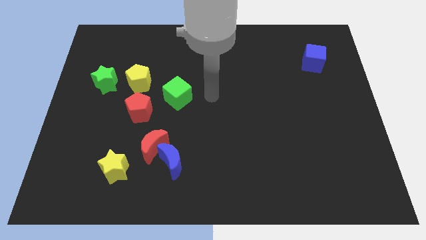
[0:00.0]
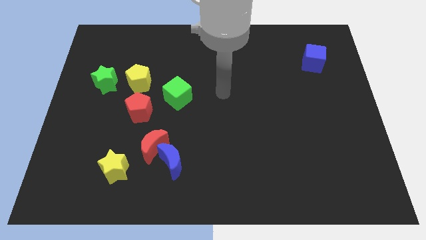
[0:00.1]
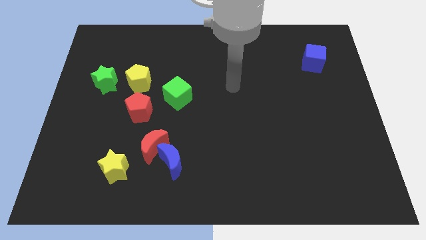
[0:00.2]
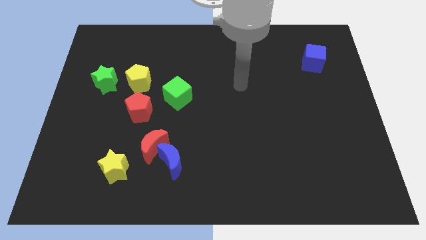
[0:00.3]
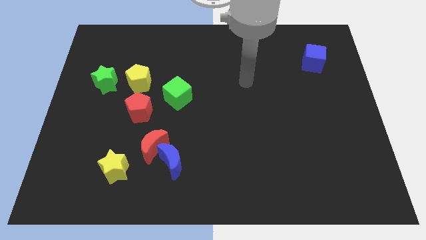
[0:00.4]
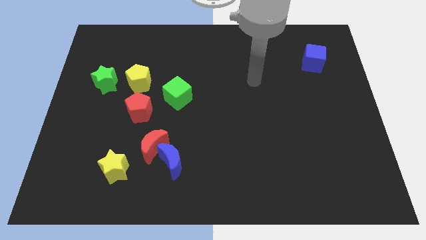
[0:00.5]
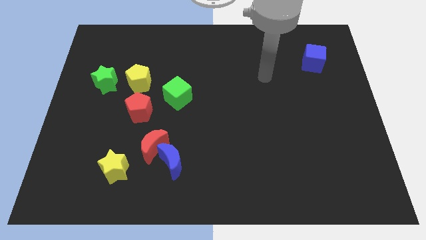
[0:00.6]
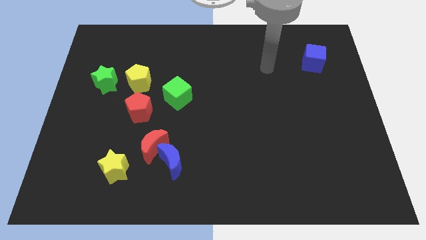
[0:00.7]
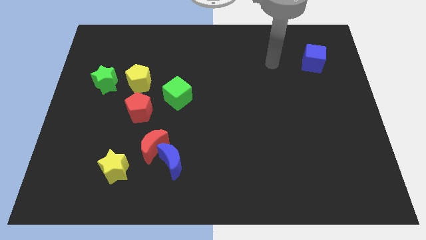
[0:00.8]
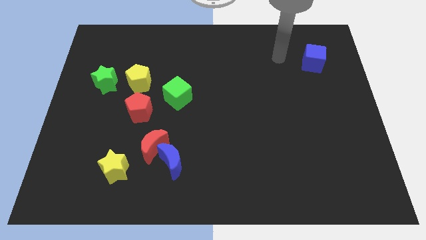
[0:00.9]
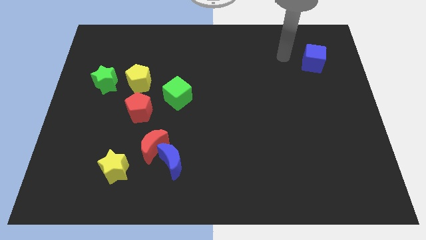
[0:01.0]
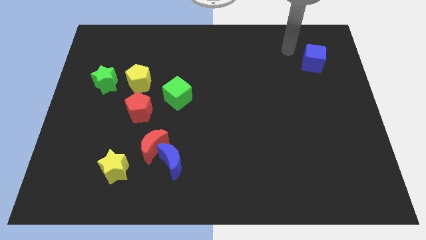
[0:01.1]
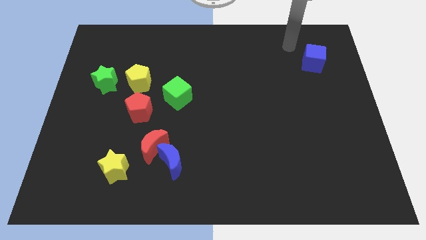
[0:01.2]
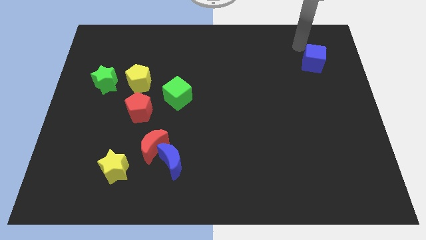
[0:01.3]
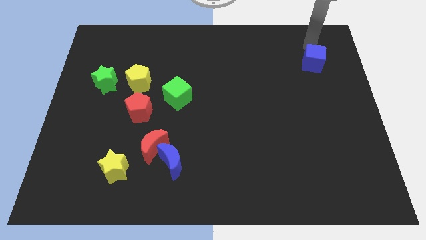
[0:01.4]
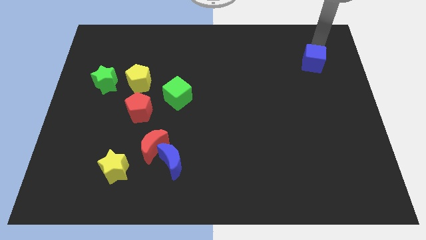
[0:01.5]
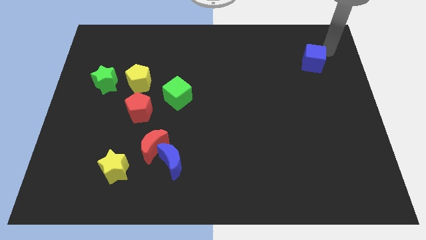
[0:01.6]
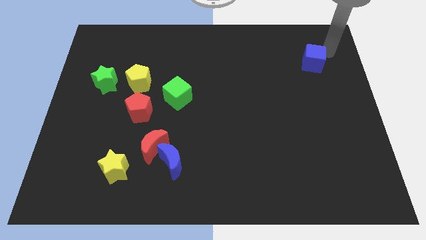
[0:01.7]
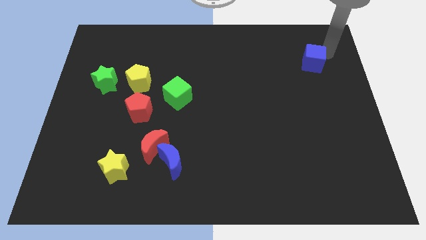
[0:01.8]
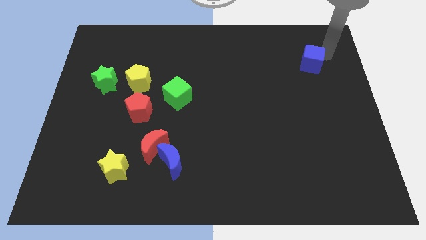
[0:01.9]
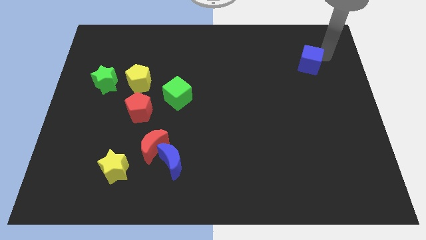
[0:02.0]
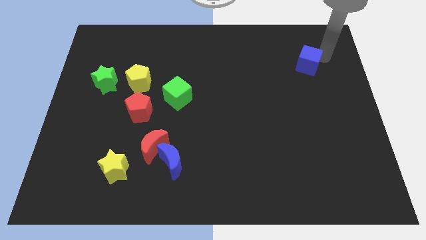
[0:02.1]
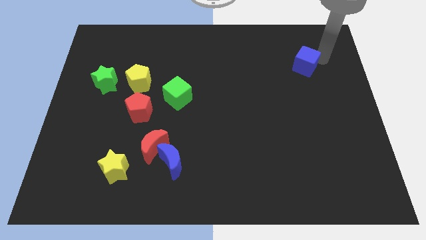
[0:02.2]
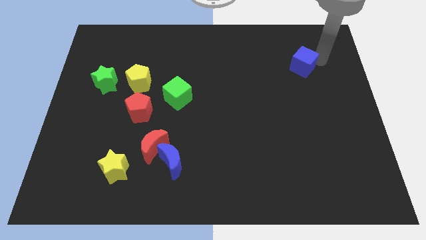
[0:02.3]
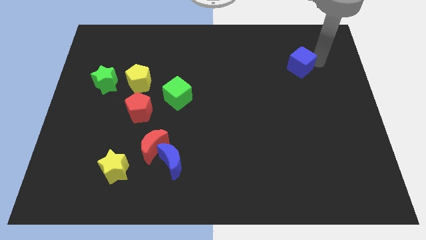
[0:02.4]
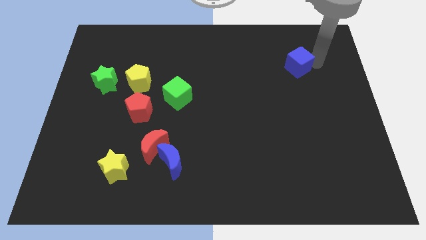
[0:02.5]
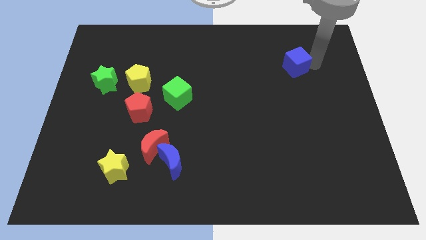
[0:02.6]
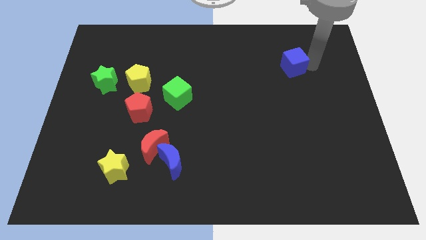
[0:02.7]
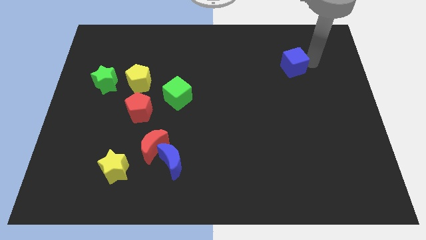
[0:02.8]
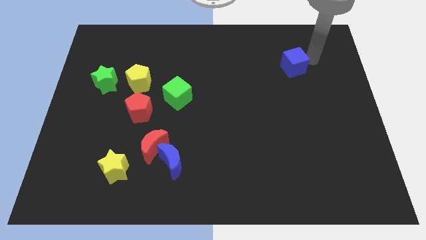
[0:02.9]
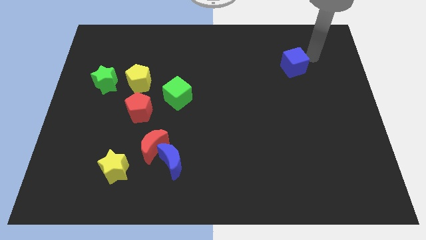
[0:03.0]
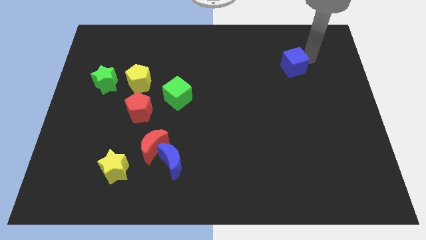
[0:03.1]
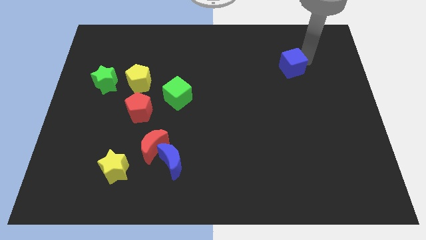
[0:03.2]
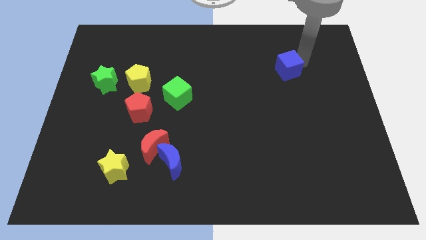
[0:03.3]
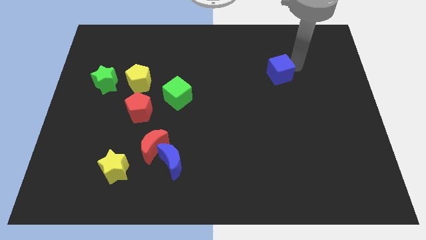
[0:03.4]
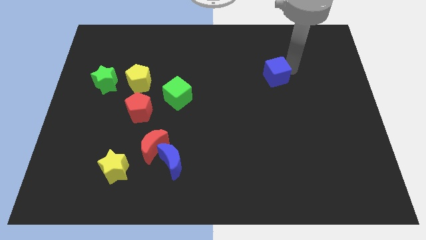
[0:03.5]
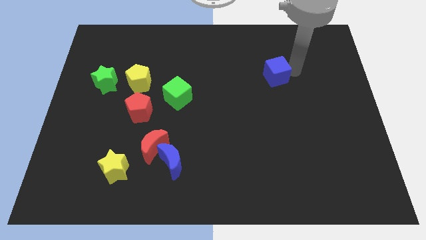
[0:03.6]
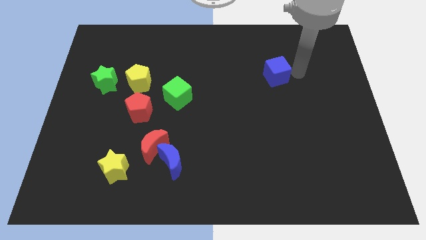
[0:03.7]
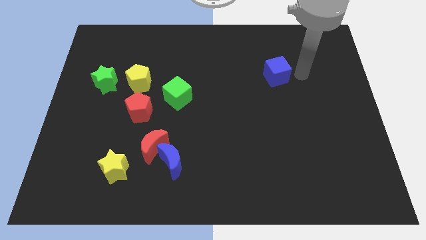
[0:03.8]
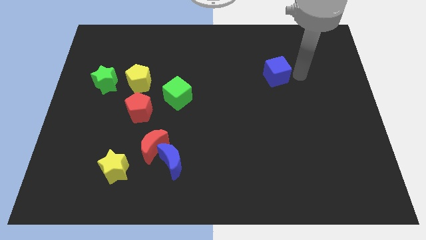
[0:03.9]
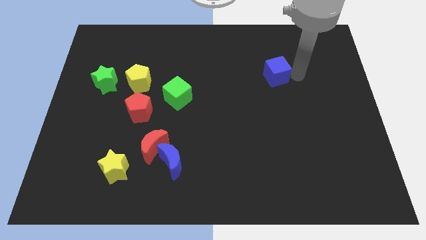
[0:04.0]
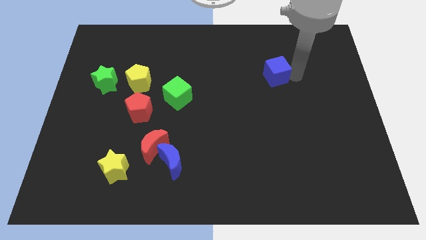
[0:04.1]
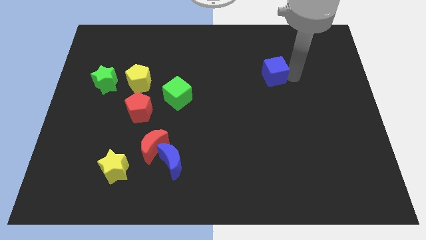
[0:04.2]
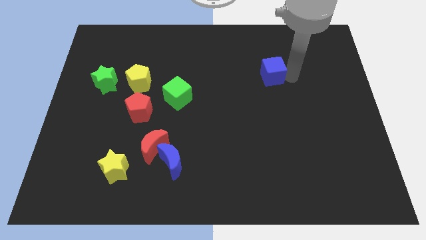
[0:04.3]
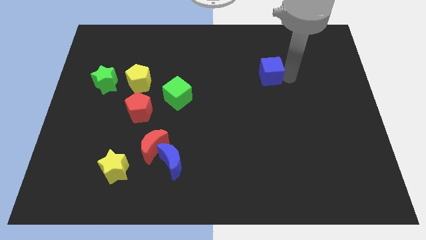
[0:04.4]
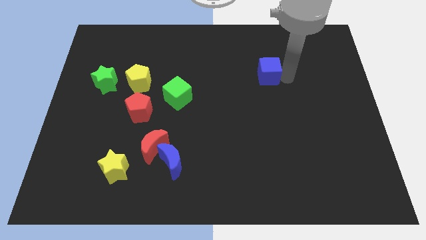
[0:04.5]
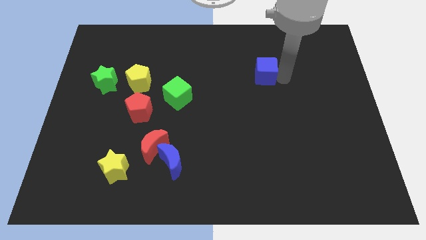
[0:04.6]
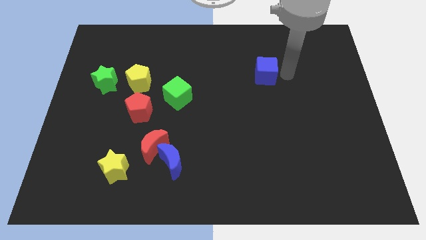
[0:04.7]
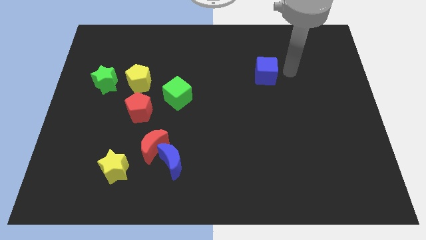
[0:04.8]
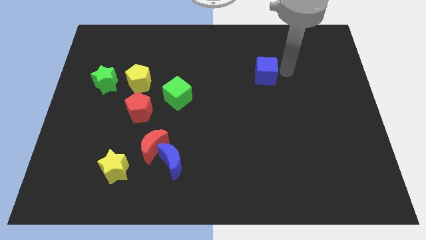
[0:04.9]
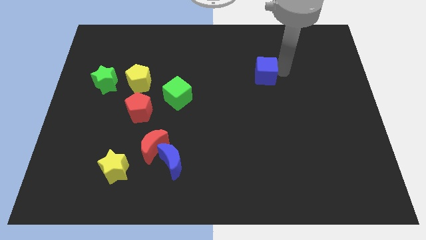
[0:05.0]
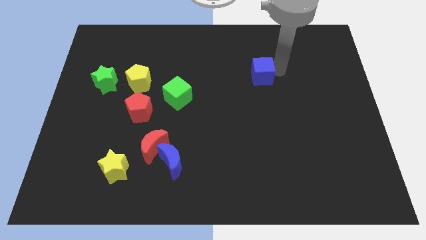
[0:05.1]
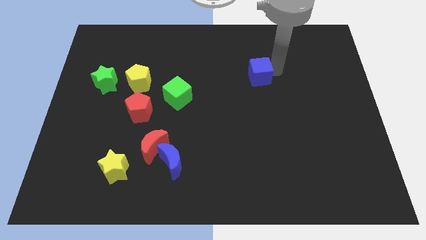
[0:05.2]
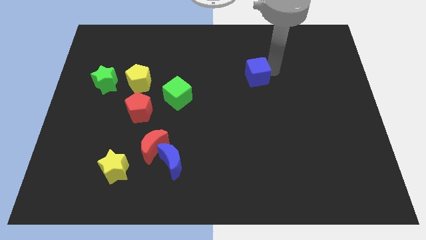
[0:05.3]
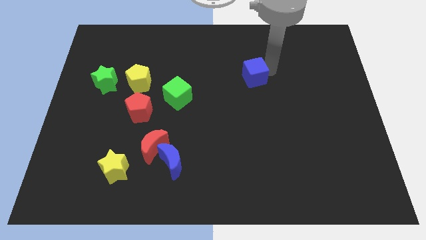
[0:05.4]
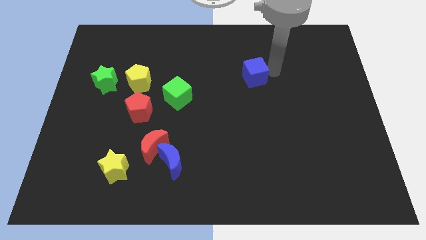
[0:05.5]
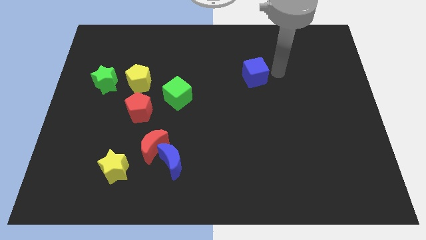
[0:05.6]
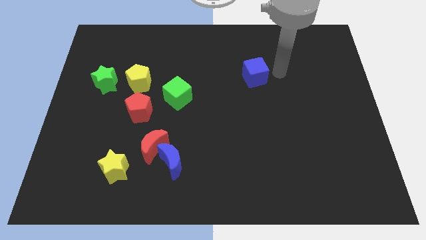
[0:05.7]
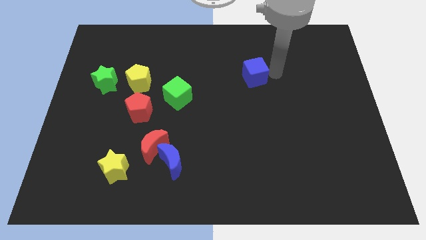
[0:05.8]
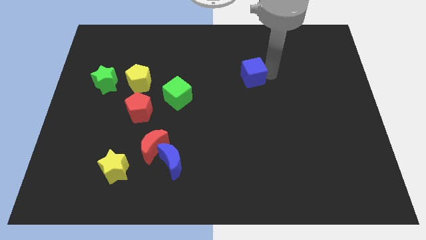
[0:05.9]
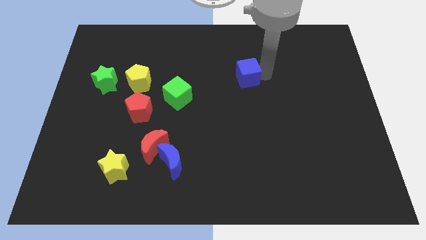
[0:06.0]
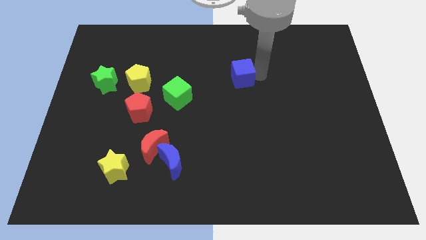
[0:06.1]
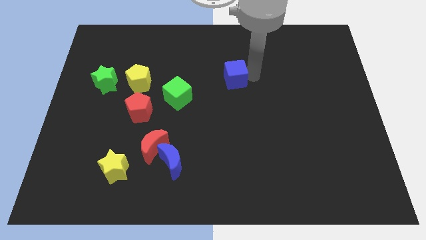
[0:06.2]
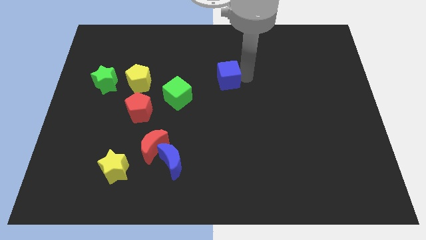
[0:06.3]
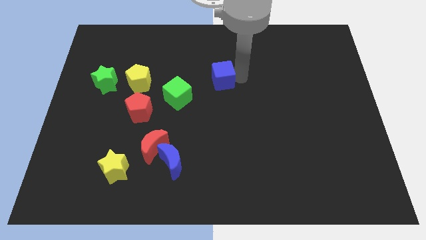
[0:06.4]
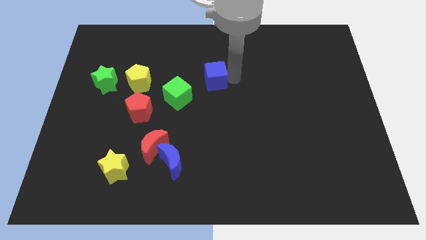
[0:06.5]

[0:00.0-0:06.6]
put the blue cube to the top right of the green cube
